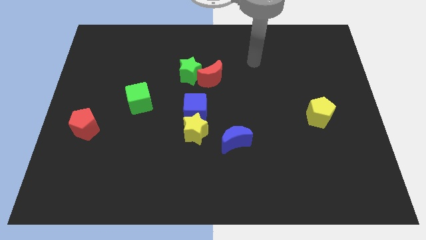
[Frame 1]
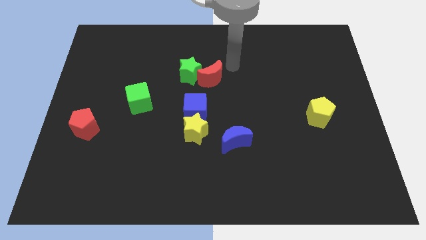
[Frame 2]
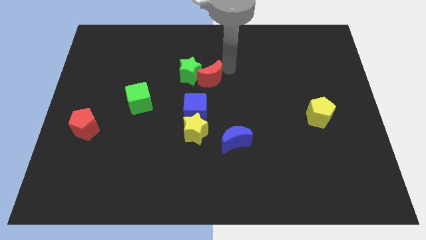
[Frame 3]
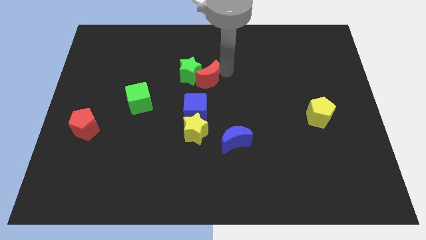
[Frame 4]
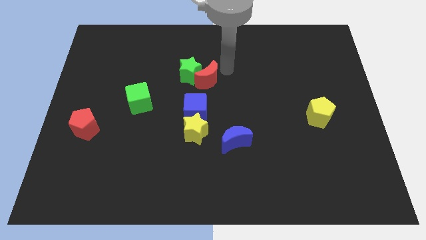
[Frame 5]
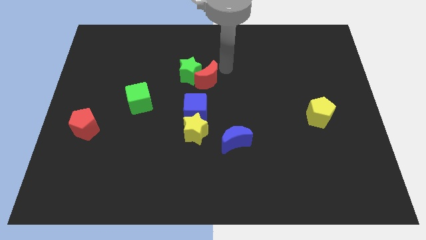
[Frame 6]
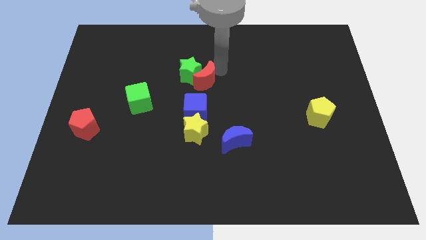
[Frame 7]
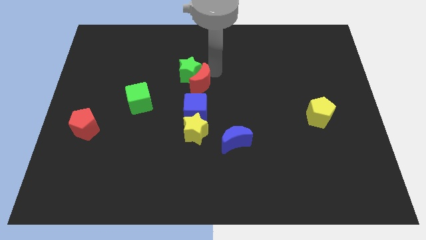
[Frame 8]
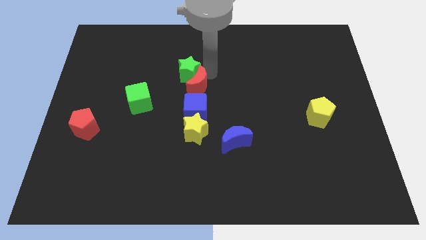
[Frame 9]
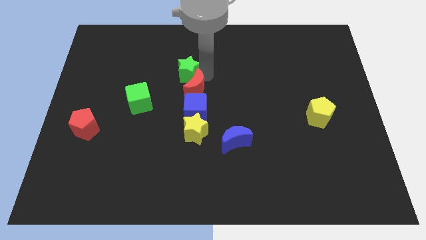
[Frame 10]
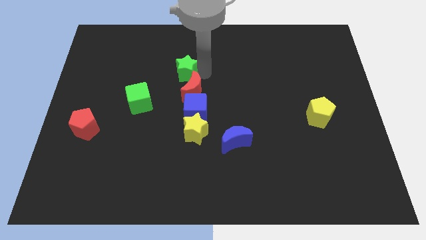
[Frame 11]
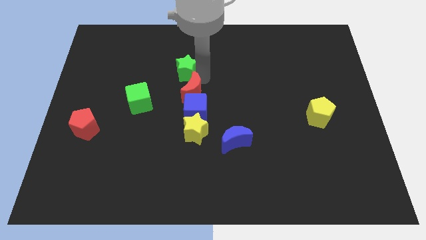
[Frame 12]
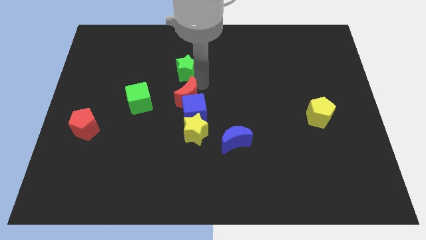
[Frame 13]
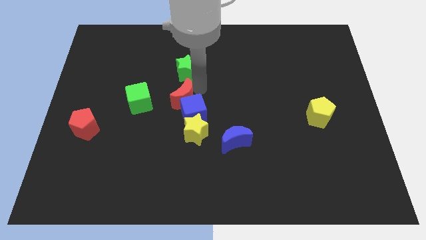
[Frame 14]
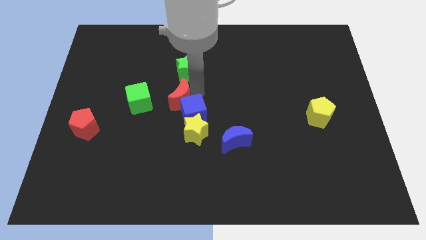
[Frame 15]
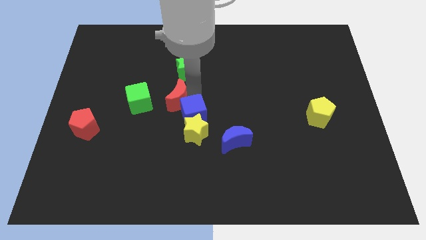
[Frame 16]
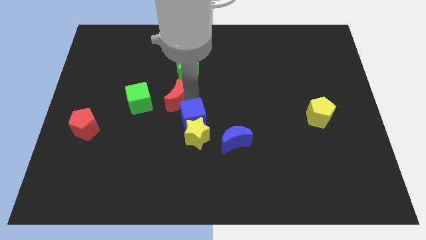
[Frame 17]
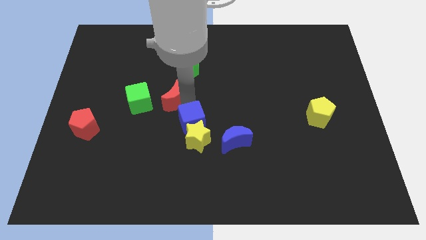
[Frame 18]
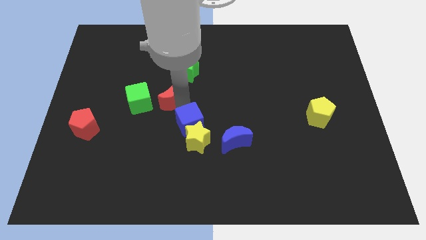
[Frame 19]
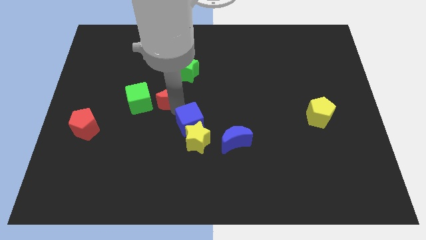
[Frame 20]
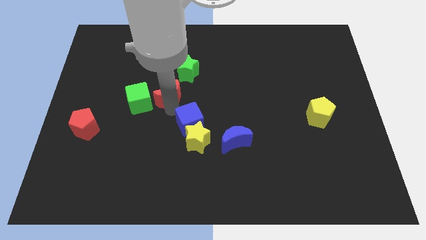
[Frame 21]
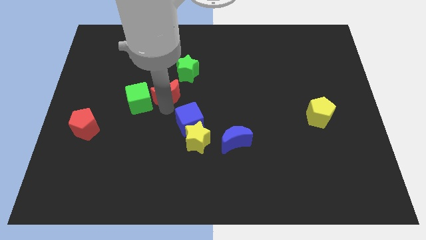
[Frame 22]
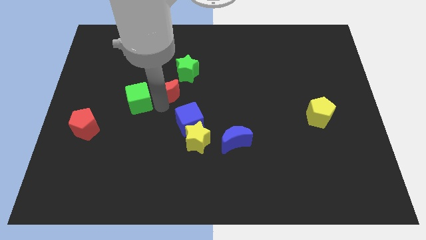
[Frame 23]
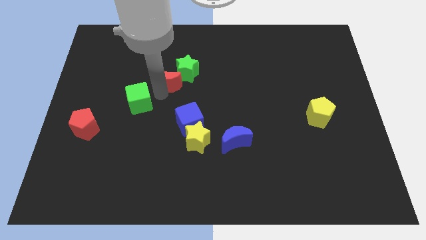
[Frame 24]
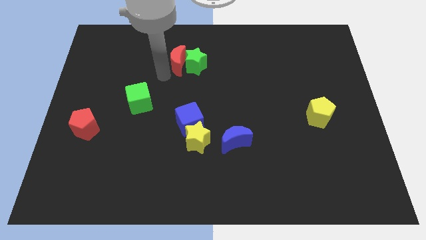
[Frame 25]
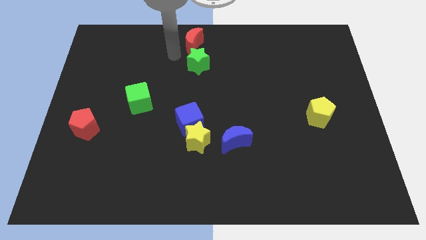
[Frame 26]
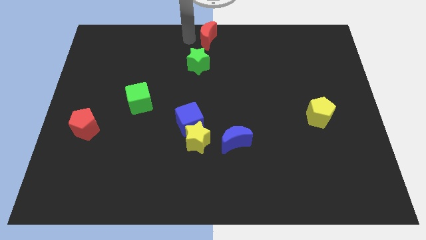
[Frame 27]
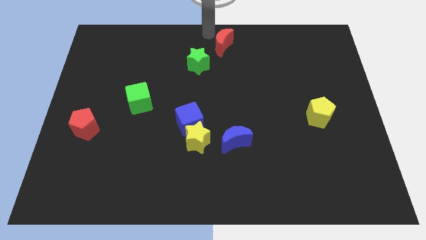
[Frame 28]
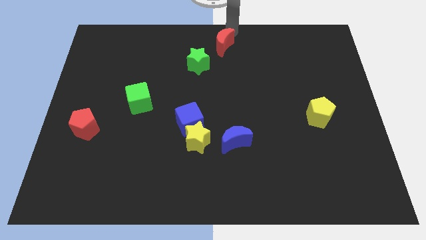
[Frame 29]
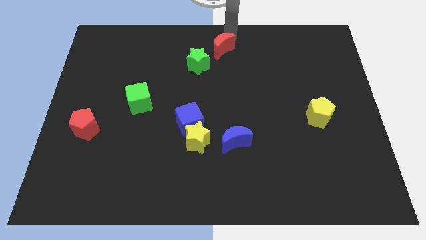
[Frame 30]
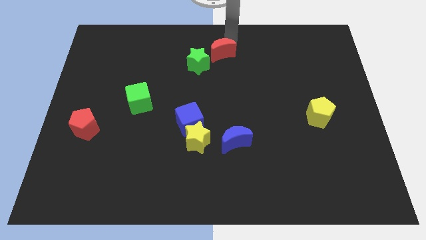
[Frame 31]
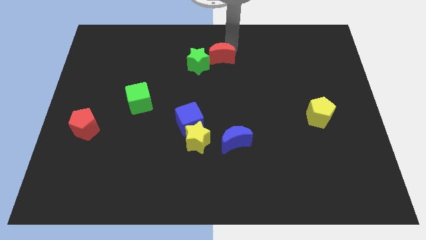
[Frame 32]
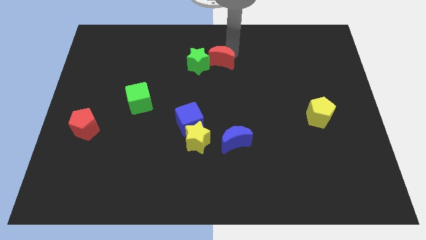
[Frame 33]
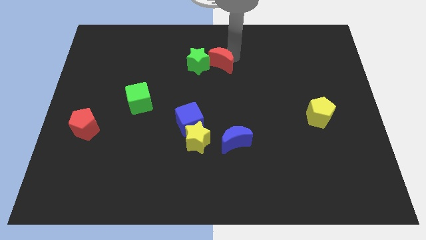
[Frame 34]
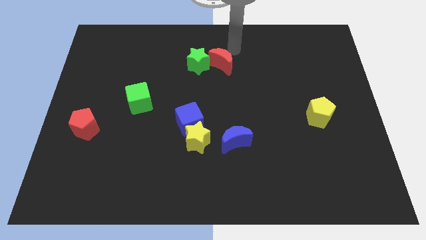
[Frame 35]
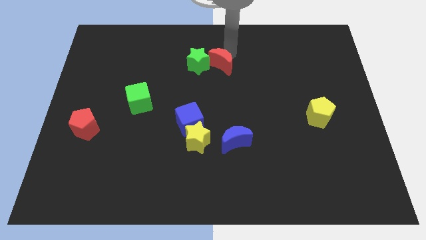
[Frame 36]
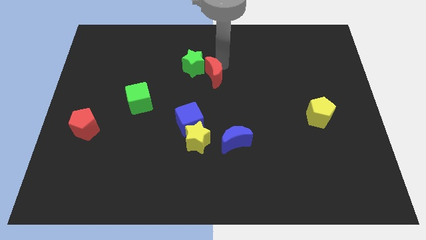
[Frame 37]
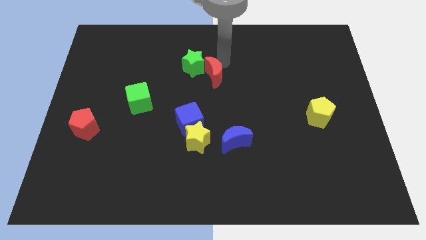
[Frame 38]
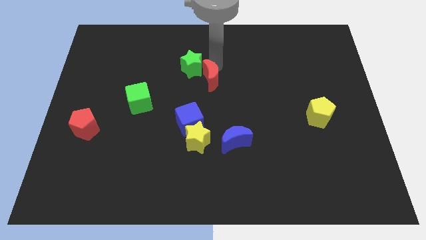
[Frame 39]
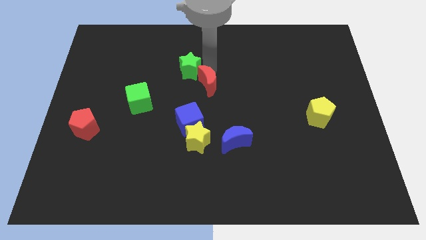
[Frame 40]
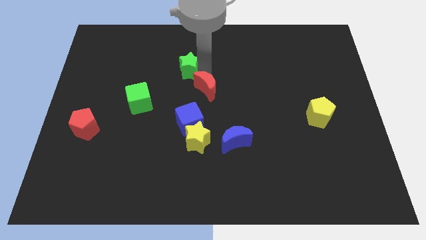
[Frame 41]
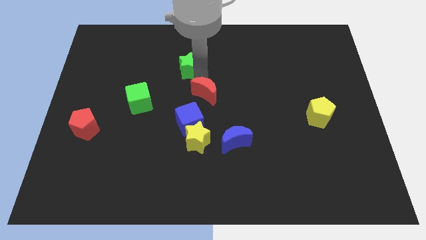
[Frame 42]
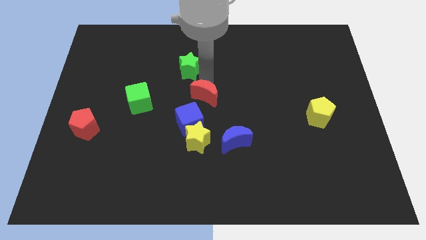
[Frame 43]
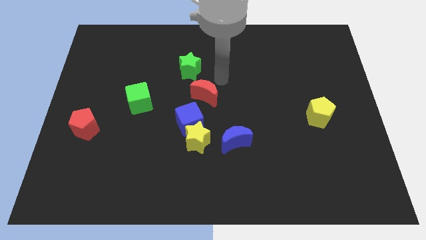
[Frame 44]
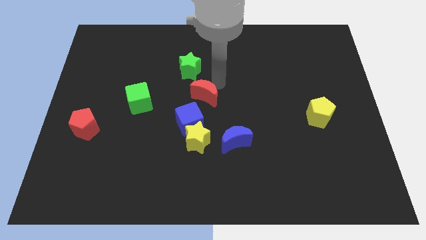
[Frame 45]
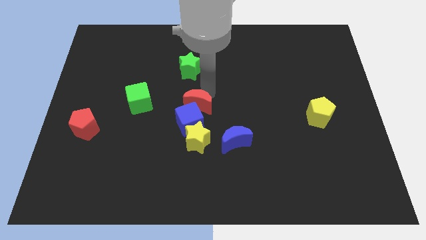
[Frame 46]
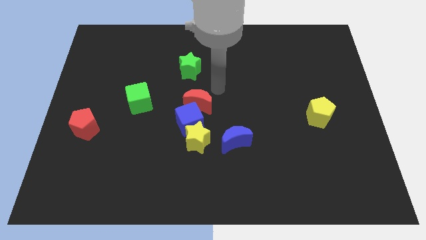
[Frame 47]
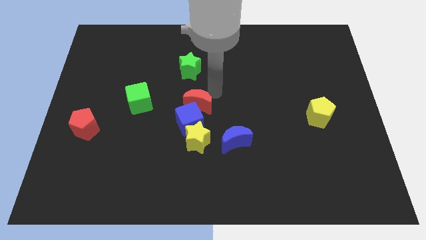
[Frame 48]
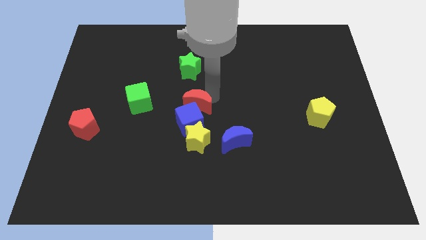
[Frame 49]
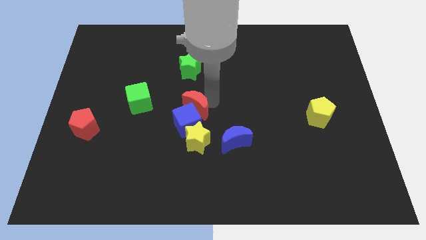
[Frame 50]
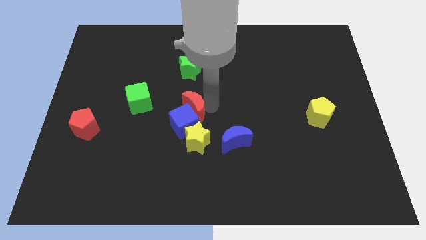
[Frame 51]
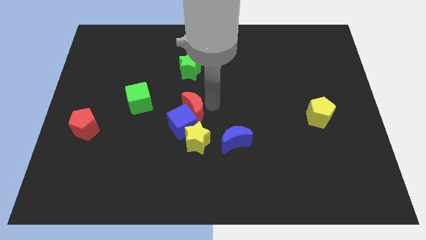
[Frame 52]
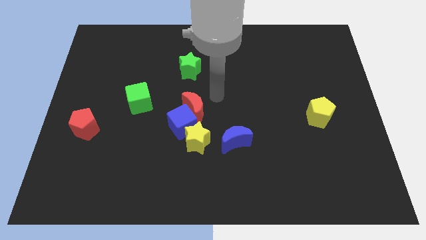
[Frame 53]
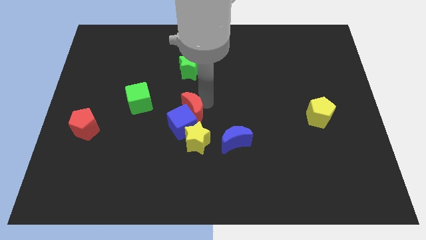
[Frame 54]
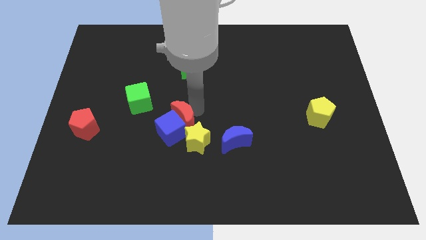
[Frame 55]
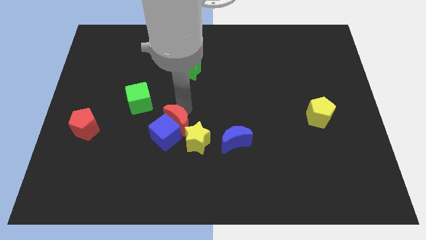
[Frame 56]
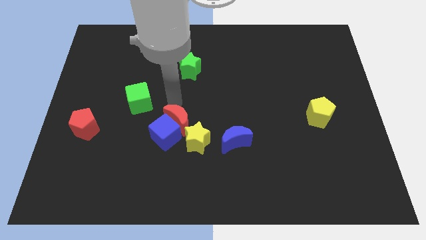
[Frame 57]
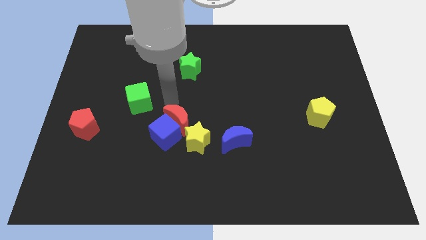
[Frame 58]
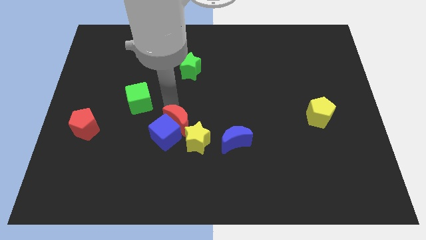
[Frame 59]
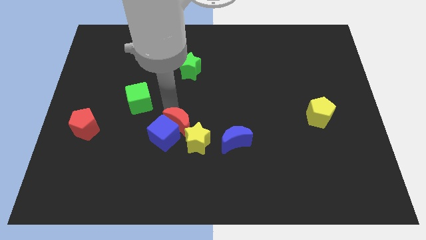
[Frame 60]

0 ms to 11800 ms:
put the red moon left of the blue moon

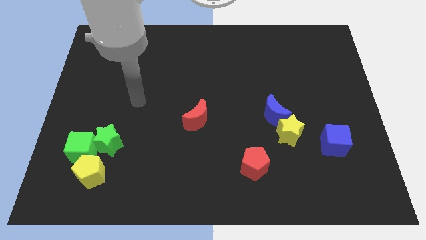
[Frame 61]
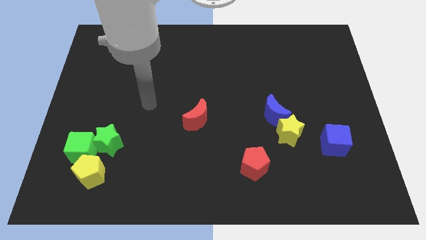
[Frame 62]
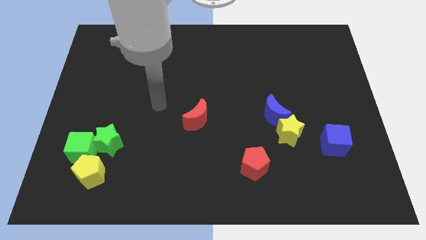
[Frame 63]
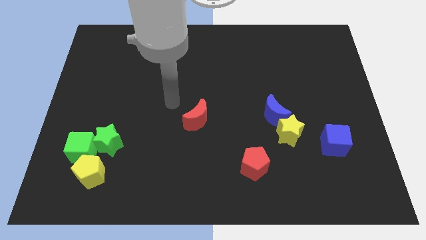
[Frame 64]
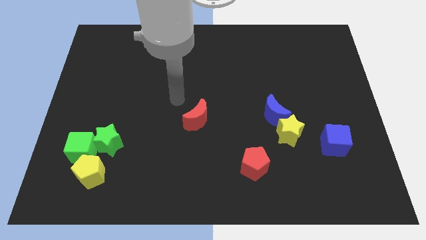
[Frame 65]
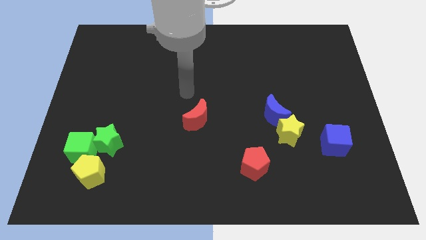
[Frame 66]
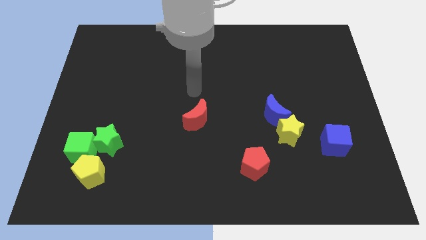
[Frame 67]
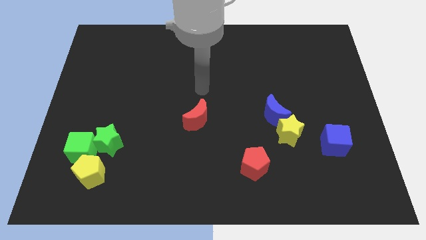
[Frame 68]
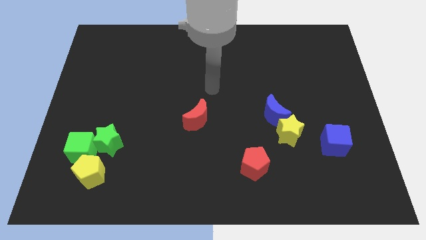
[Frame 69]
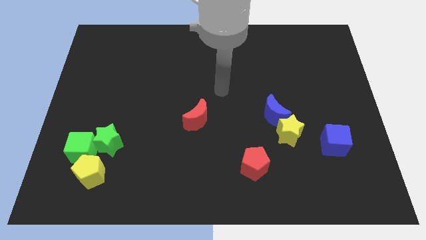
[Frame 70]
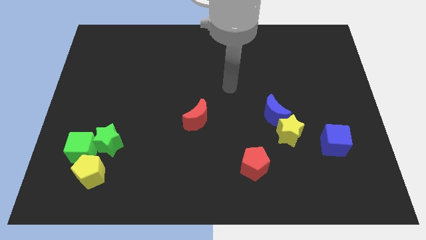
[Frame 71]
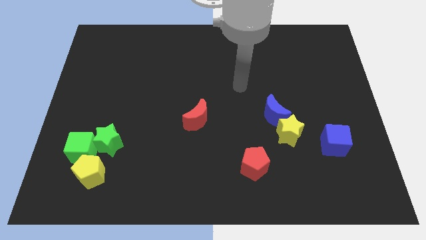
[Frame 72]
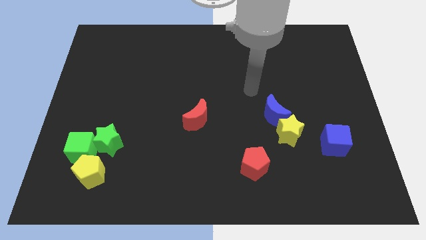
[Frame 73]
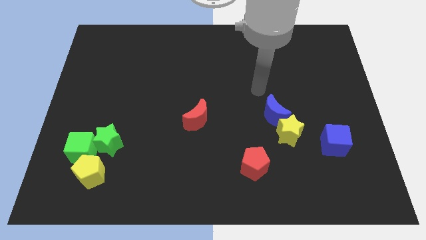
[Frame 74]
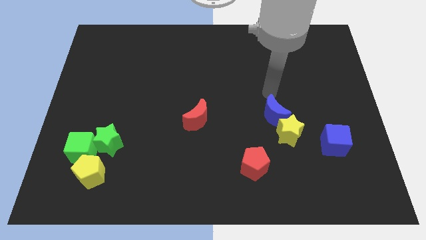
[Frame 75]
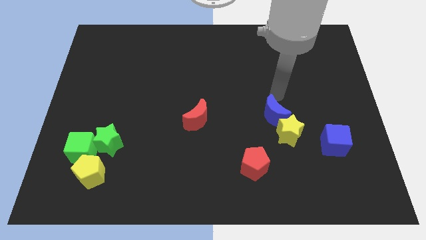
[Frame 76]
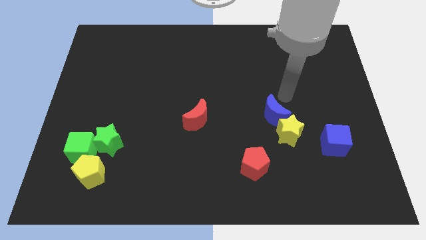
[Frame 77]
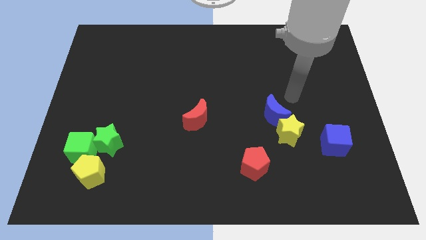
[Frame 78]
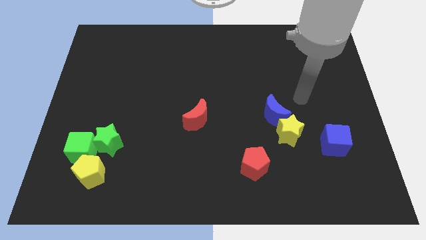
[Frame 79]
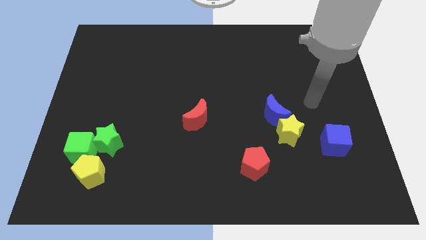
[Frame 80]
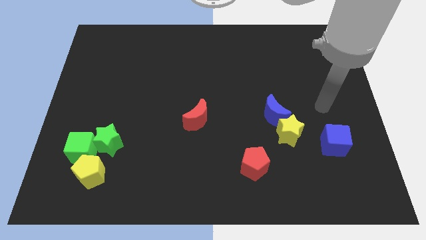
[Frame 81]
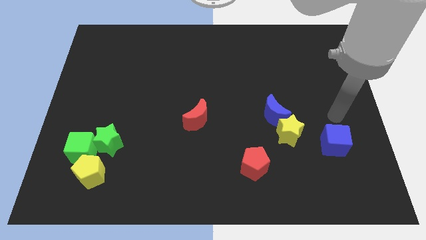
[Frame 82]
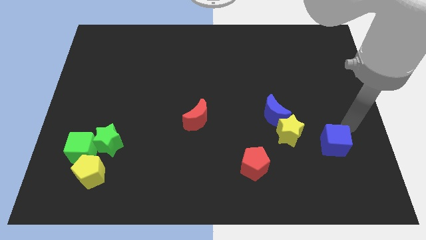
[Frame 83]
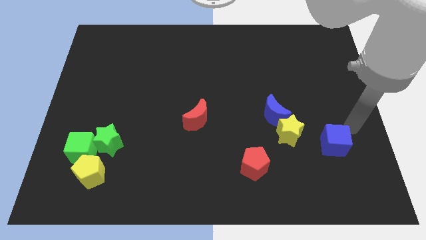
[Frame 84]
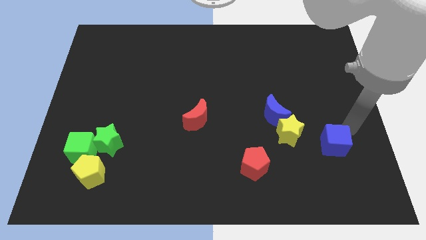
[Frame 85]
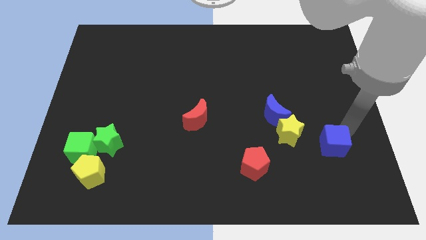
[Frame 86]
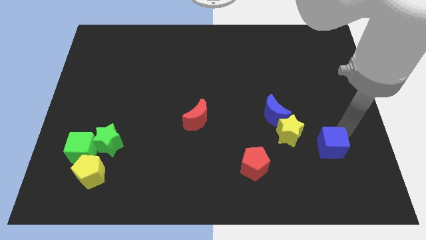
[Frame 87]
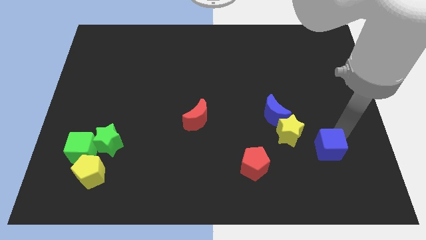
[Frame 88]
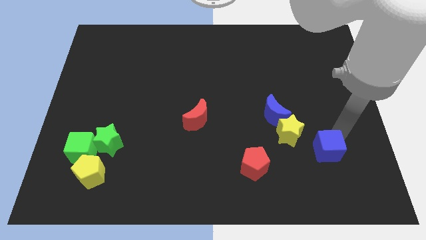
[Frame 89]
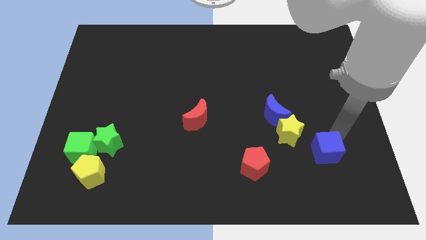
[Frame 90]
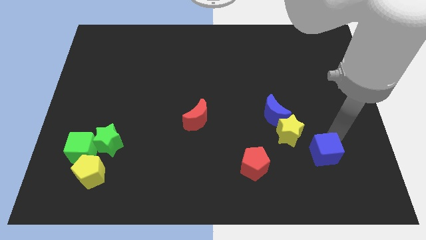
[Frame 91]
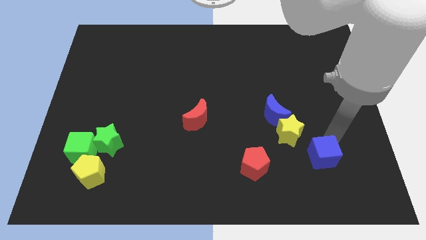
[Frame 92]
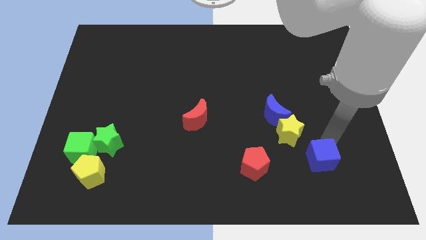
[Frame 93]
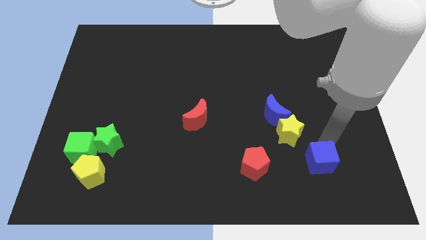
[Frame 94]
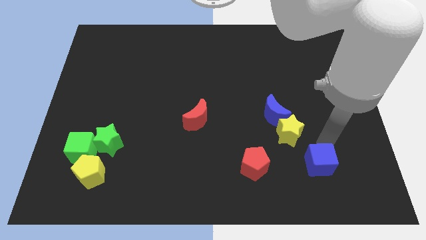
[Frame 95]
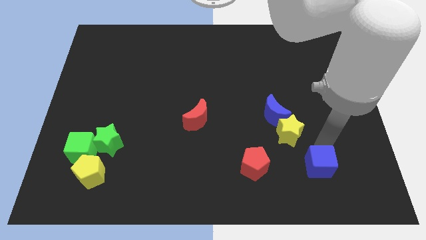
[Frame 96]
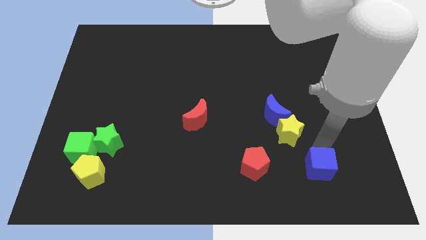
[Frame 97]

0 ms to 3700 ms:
put the blue cube below the yellow star
